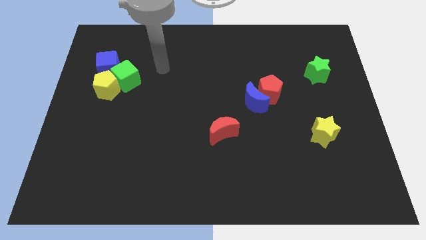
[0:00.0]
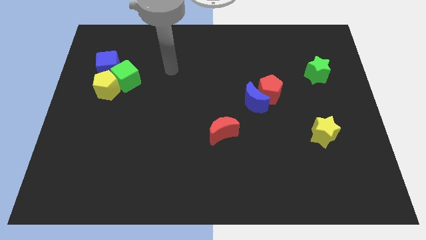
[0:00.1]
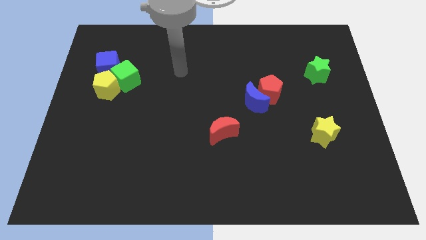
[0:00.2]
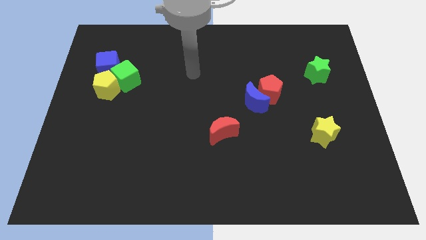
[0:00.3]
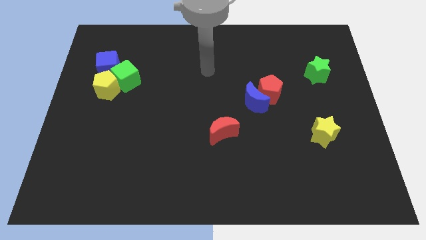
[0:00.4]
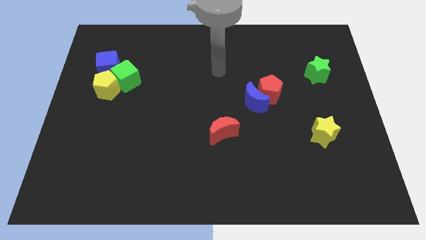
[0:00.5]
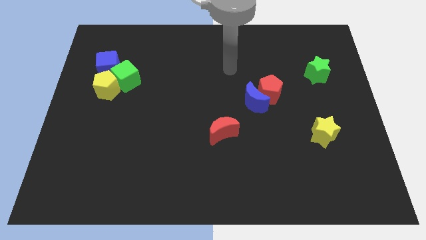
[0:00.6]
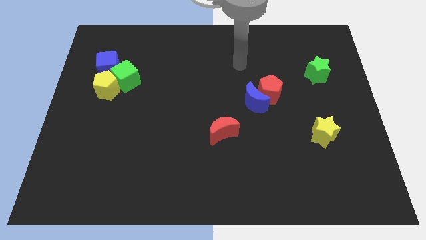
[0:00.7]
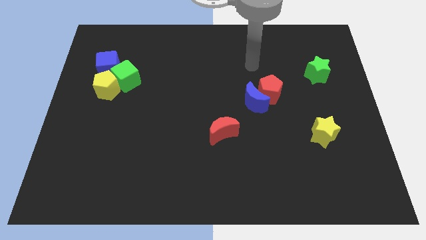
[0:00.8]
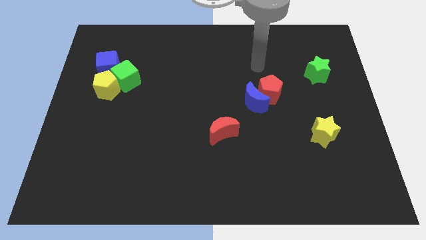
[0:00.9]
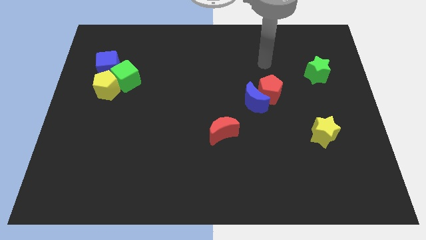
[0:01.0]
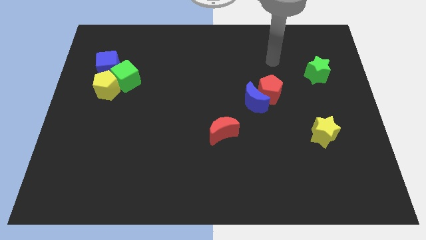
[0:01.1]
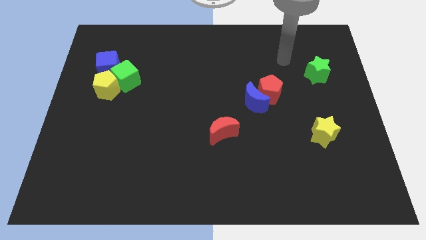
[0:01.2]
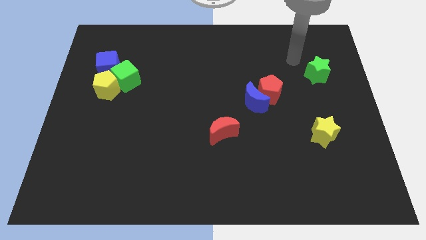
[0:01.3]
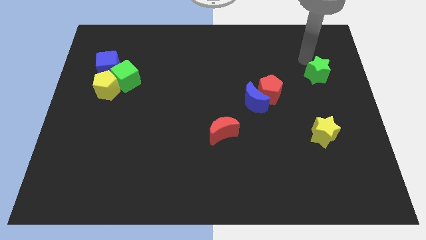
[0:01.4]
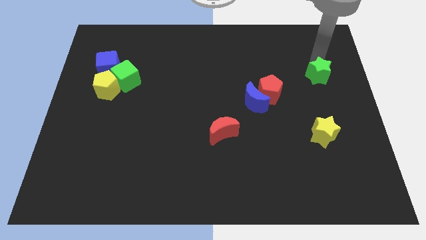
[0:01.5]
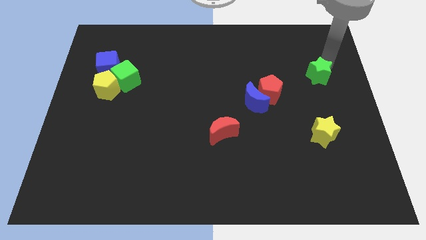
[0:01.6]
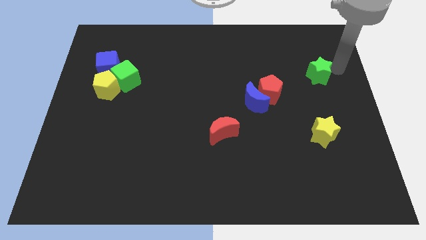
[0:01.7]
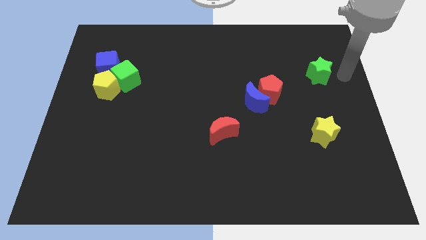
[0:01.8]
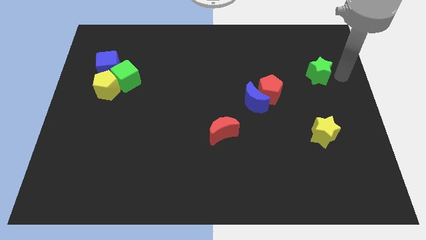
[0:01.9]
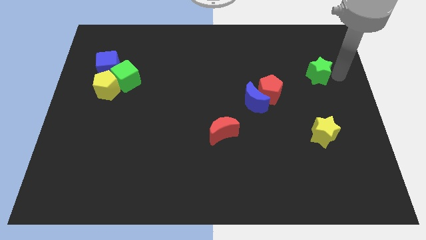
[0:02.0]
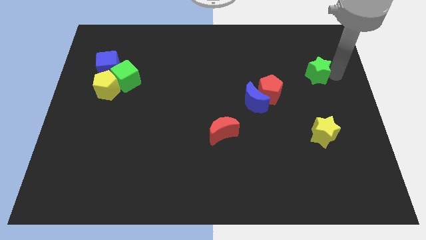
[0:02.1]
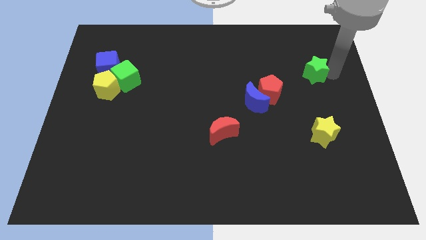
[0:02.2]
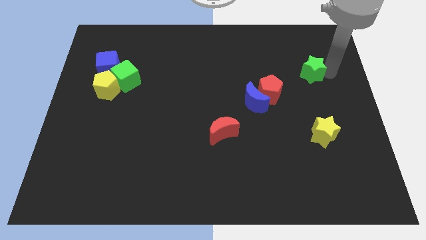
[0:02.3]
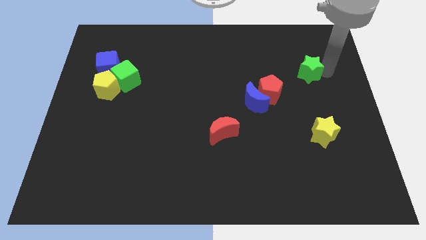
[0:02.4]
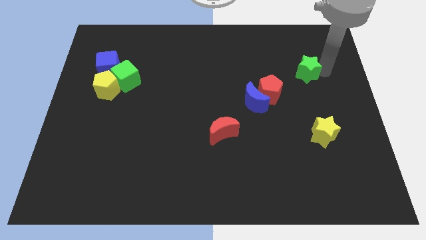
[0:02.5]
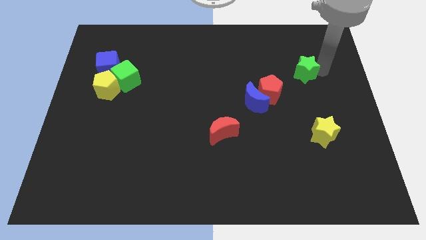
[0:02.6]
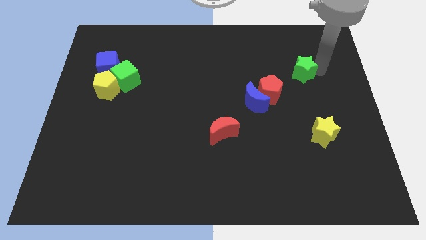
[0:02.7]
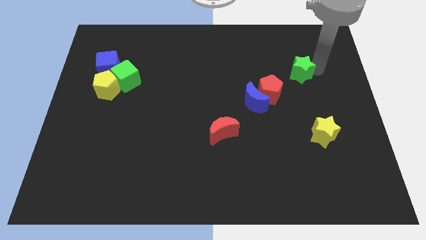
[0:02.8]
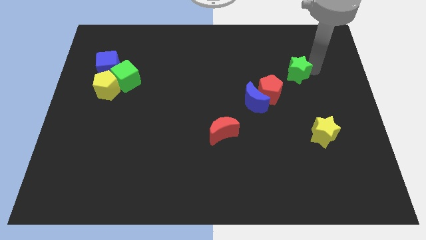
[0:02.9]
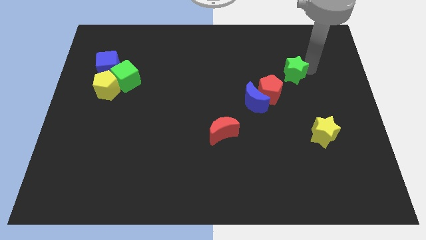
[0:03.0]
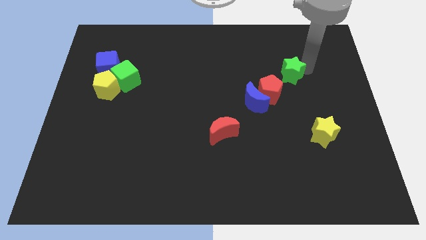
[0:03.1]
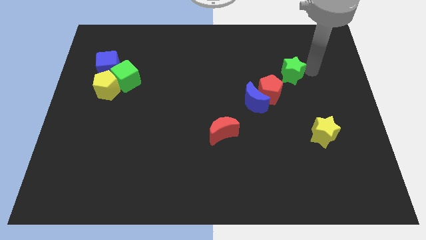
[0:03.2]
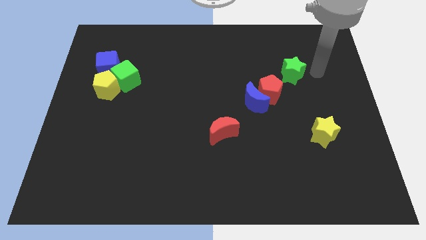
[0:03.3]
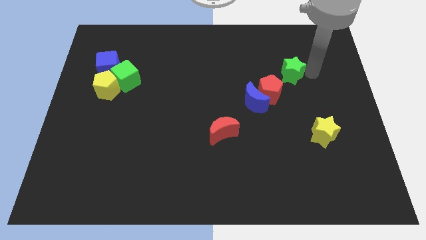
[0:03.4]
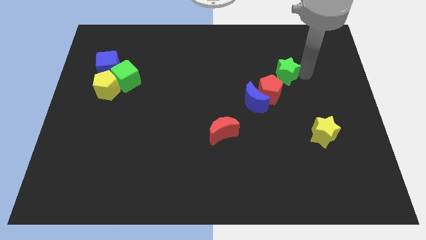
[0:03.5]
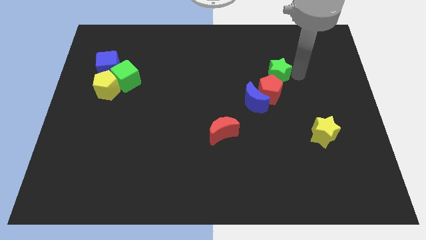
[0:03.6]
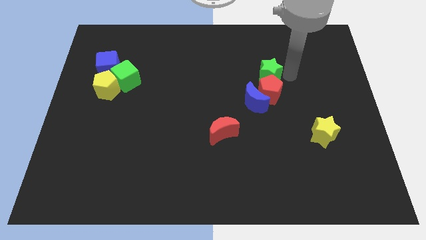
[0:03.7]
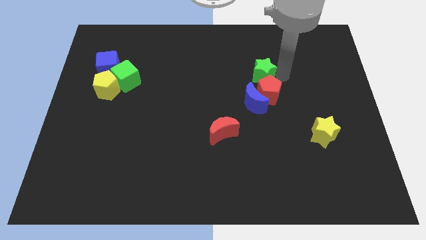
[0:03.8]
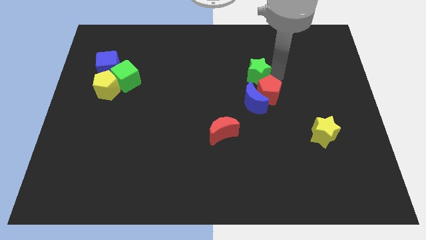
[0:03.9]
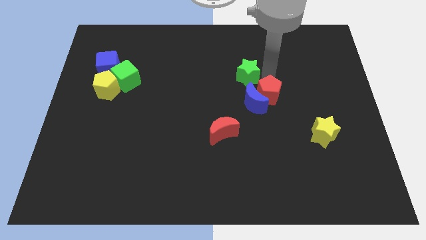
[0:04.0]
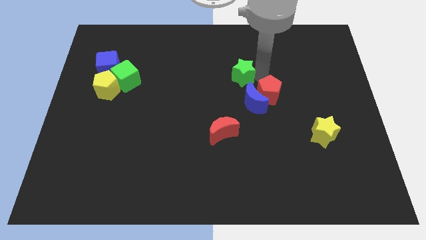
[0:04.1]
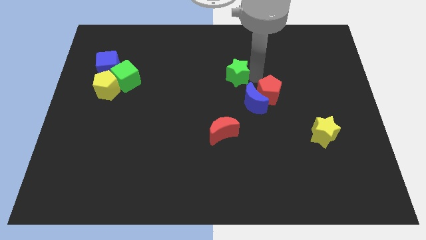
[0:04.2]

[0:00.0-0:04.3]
push the green star left

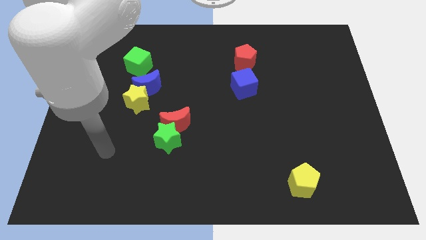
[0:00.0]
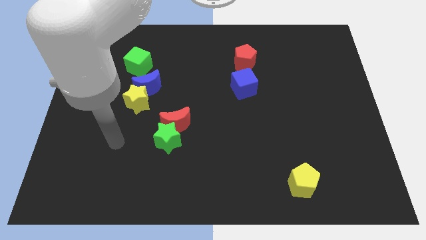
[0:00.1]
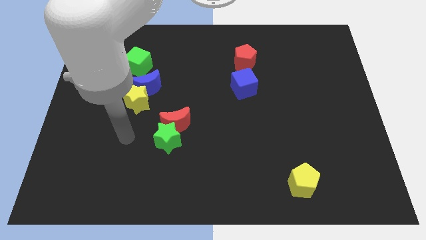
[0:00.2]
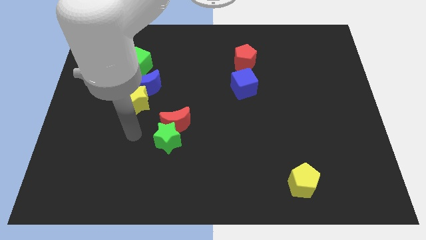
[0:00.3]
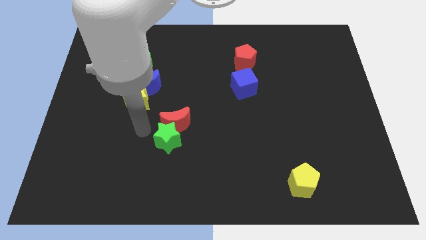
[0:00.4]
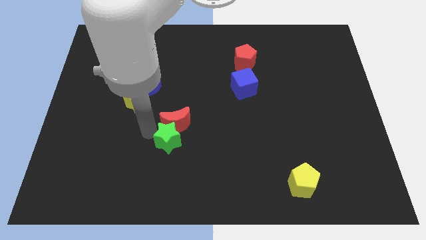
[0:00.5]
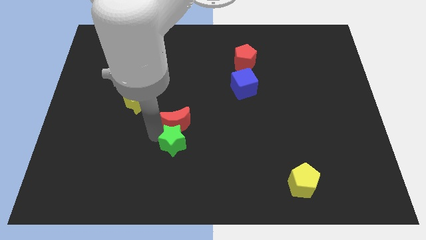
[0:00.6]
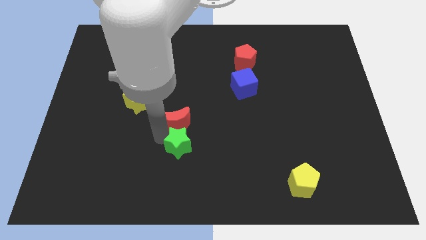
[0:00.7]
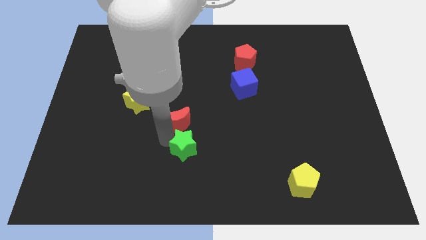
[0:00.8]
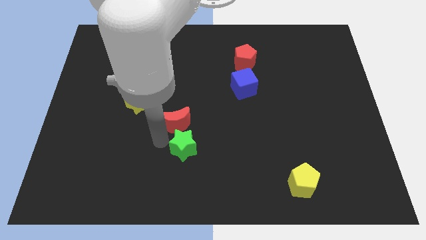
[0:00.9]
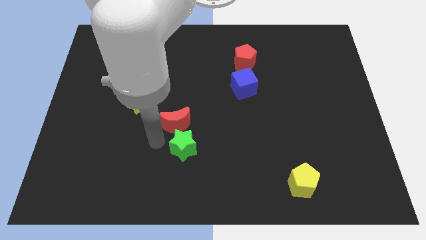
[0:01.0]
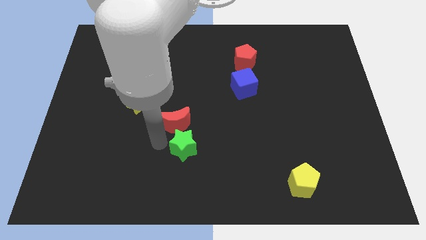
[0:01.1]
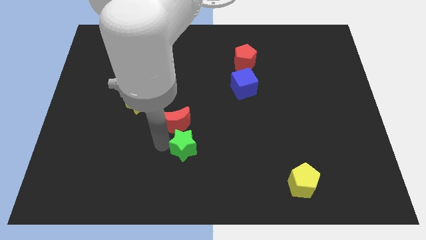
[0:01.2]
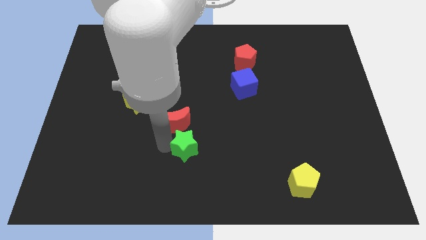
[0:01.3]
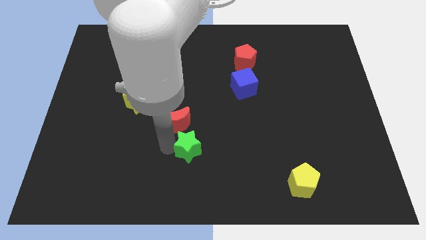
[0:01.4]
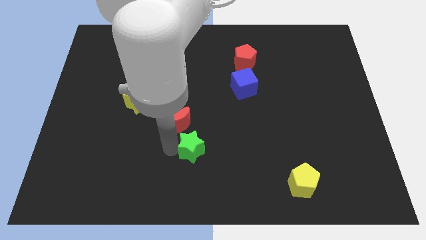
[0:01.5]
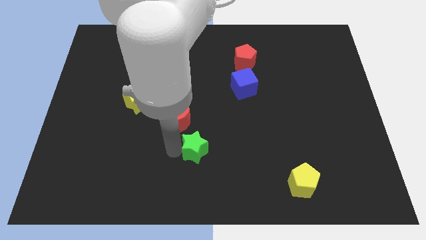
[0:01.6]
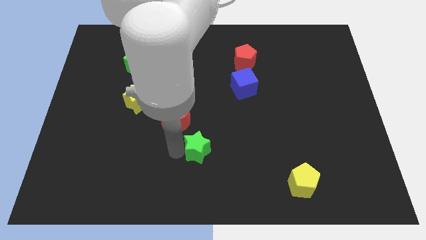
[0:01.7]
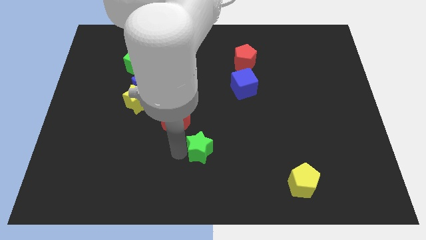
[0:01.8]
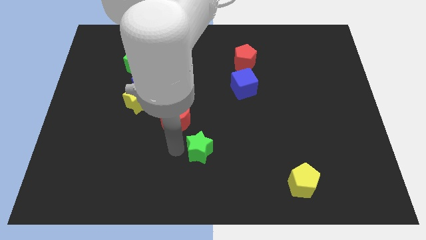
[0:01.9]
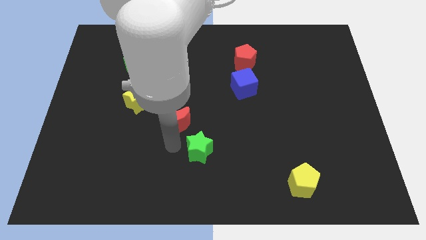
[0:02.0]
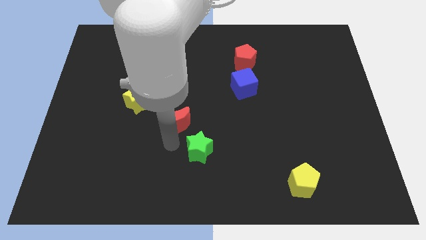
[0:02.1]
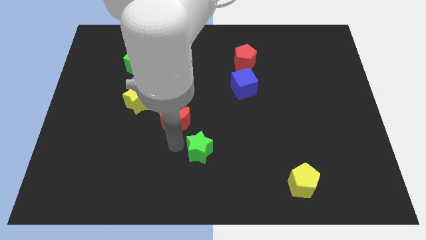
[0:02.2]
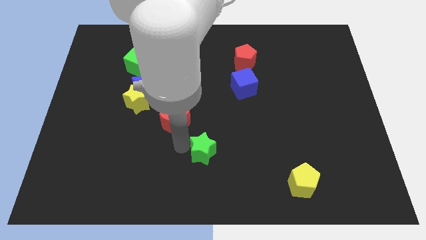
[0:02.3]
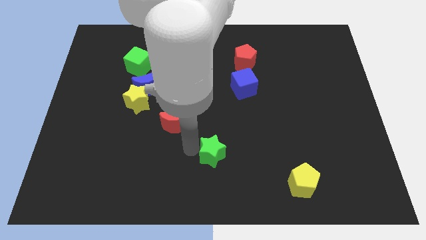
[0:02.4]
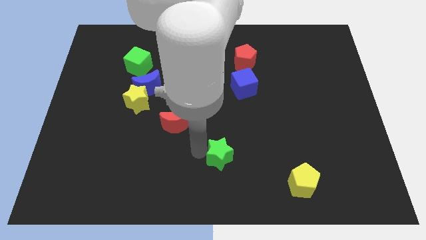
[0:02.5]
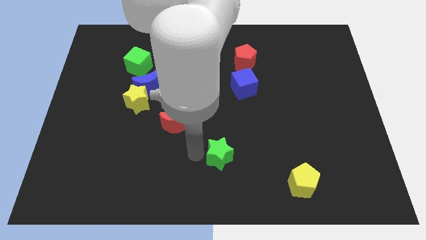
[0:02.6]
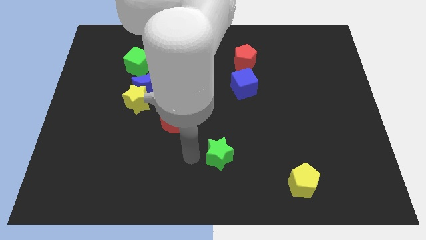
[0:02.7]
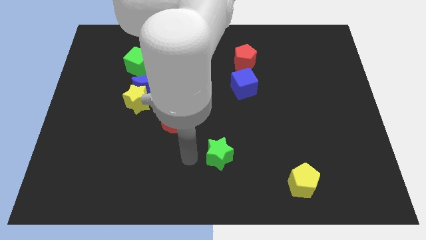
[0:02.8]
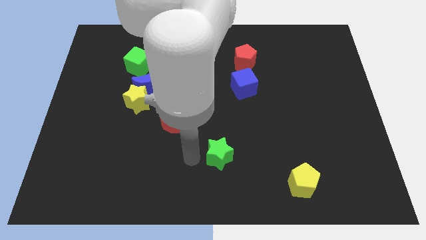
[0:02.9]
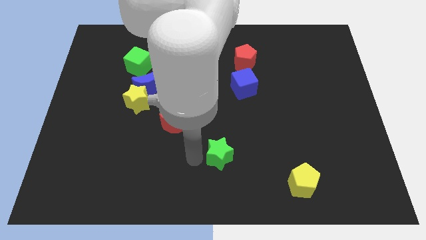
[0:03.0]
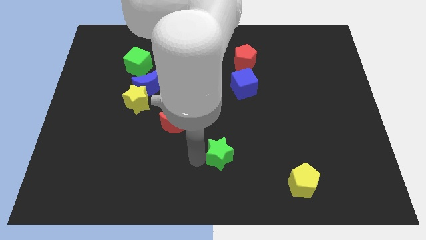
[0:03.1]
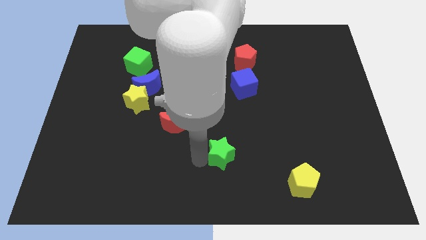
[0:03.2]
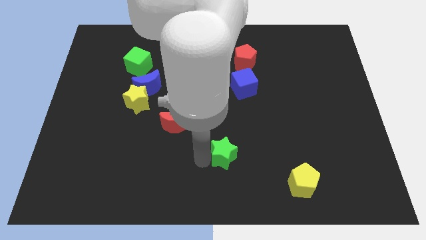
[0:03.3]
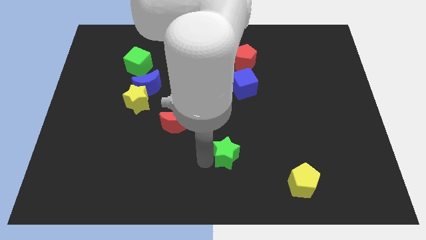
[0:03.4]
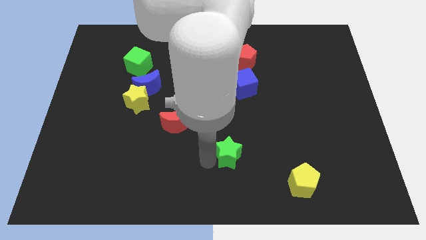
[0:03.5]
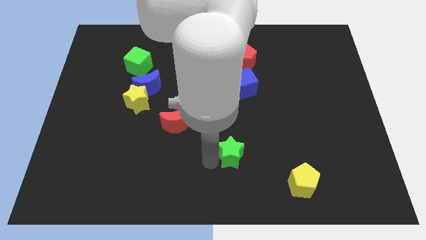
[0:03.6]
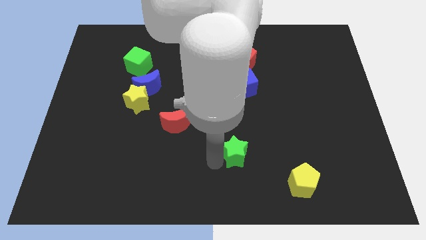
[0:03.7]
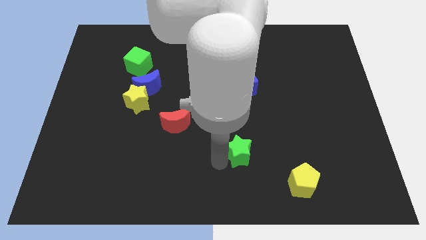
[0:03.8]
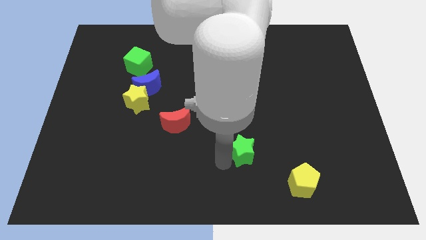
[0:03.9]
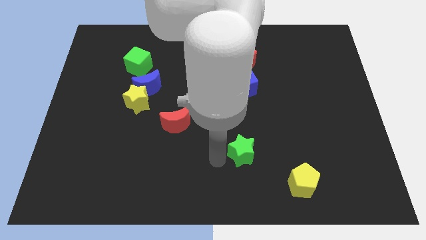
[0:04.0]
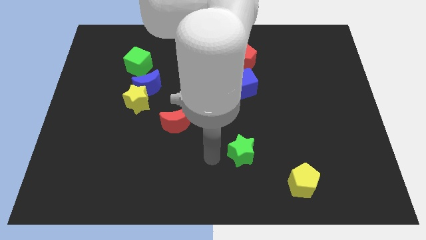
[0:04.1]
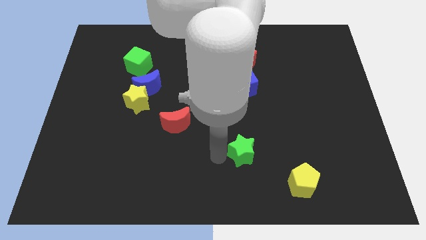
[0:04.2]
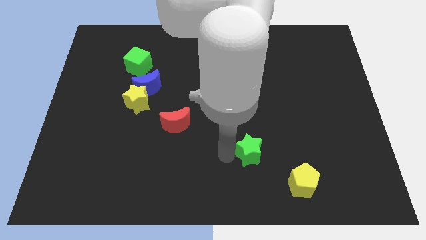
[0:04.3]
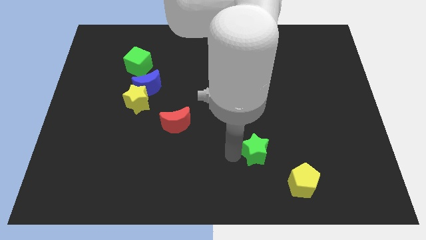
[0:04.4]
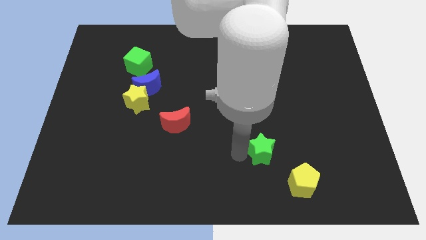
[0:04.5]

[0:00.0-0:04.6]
push the green star right
